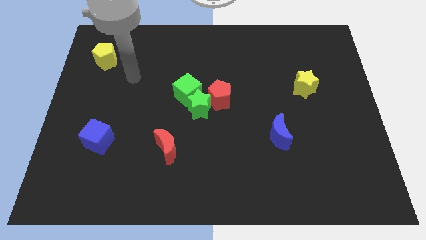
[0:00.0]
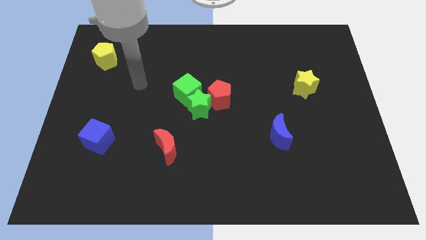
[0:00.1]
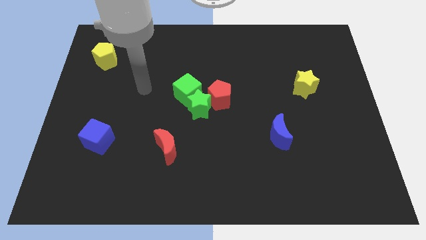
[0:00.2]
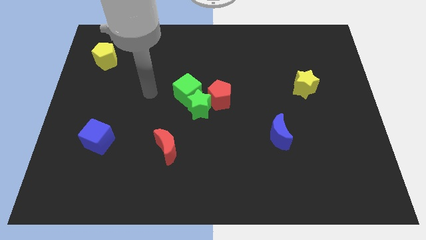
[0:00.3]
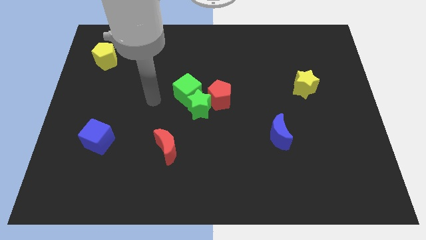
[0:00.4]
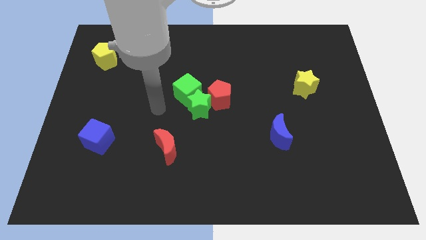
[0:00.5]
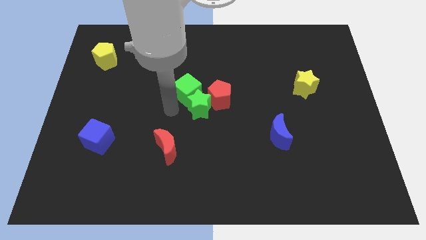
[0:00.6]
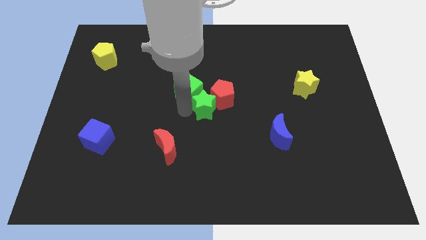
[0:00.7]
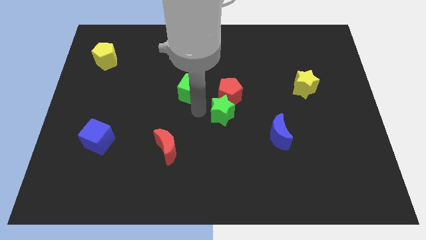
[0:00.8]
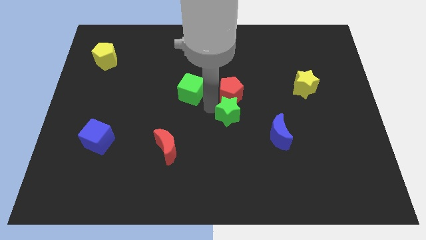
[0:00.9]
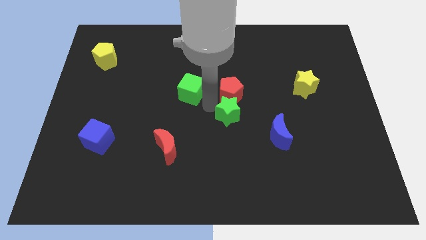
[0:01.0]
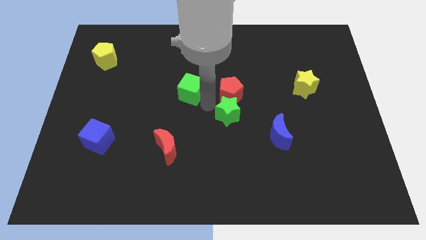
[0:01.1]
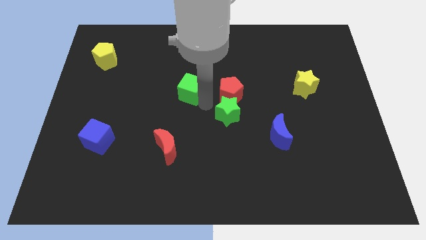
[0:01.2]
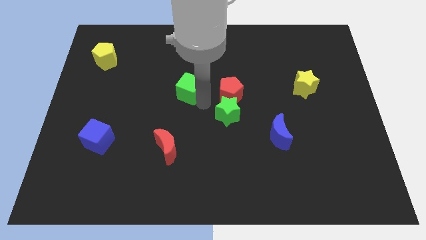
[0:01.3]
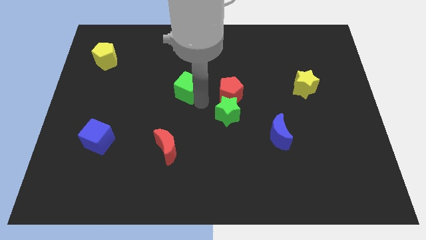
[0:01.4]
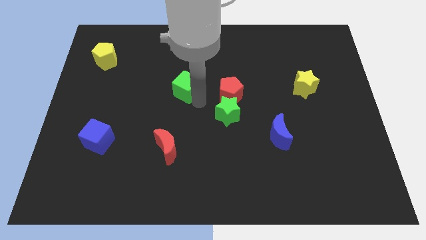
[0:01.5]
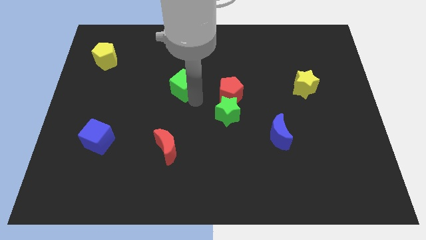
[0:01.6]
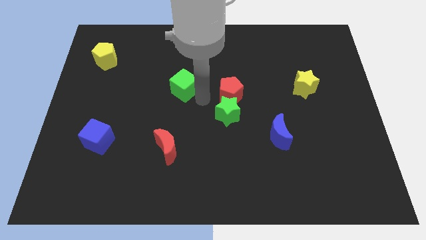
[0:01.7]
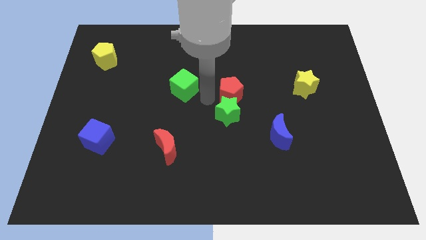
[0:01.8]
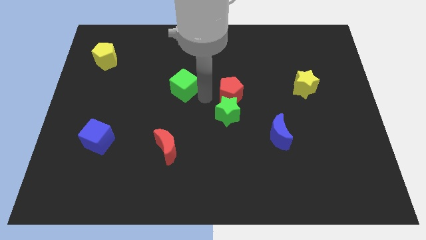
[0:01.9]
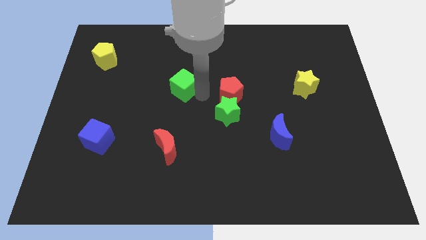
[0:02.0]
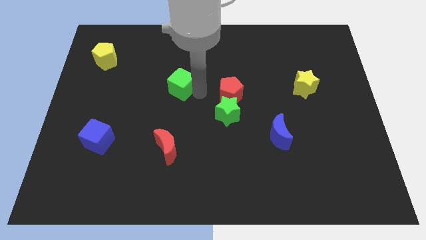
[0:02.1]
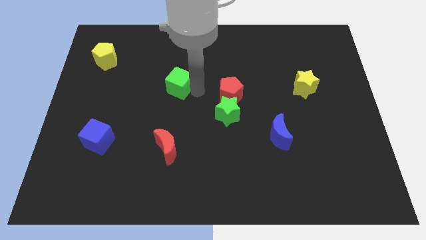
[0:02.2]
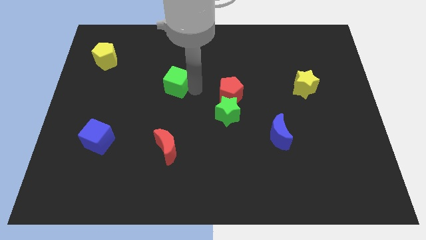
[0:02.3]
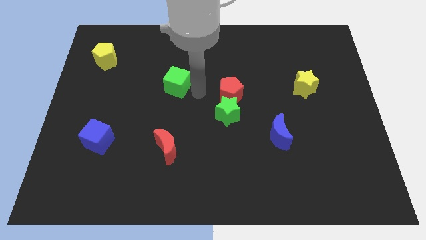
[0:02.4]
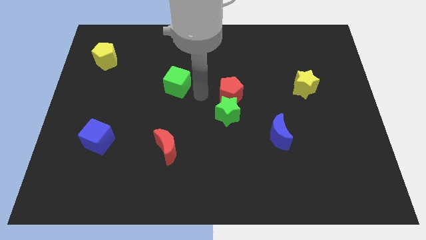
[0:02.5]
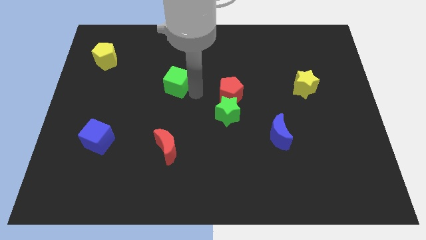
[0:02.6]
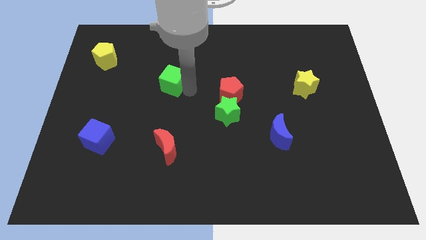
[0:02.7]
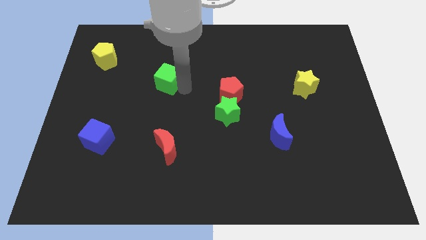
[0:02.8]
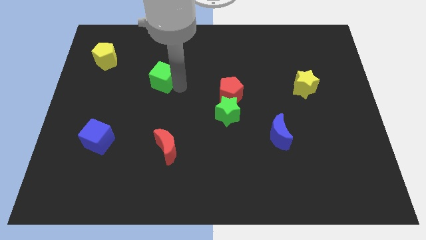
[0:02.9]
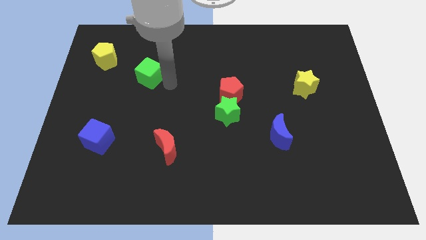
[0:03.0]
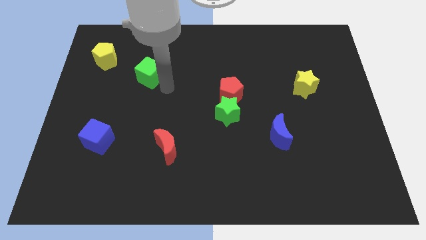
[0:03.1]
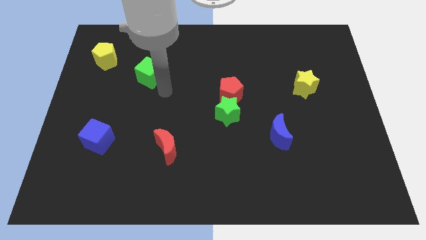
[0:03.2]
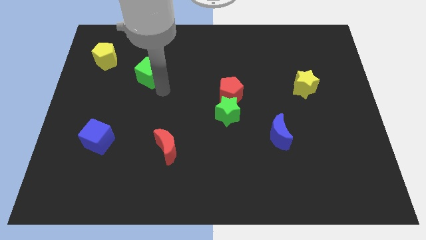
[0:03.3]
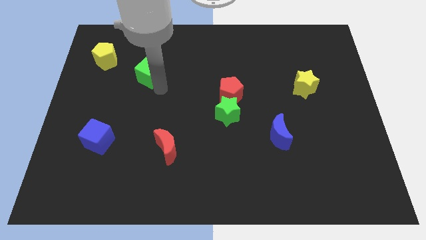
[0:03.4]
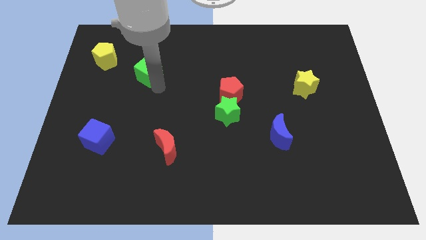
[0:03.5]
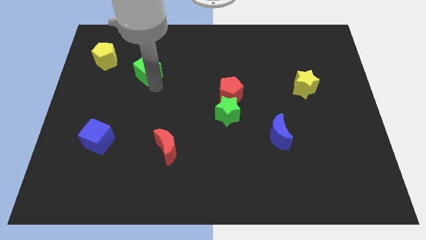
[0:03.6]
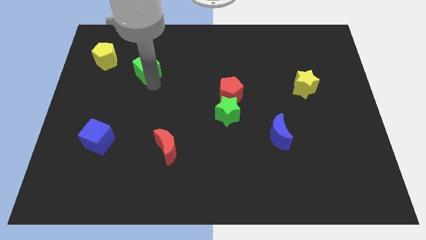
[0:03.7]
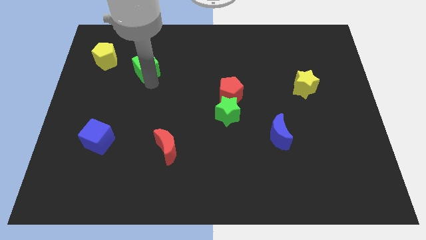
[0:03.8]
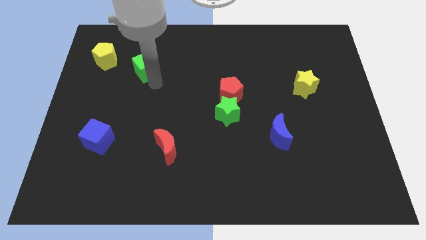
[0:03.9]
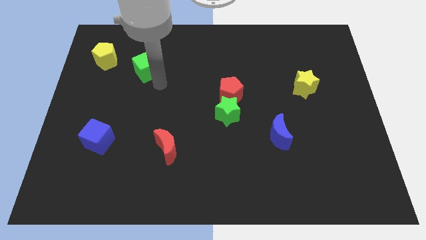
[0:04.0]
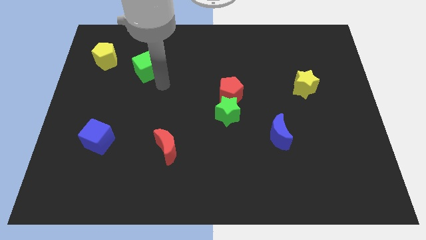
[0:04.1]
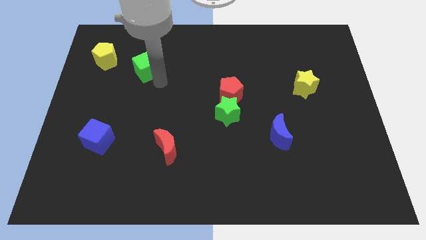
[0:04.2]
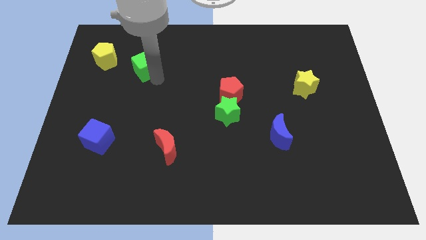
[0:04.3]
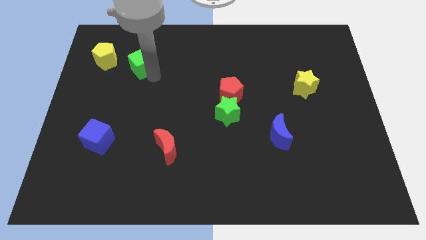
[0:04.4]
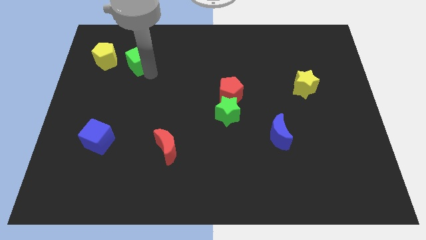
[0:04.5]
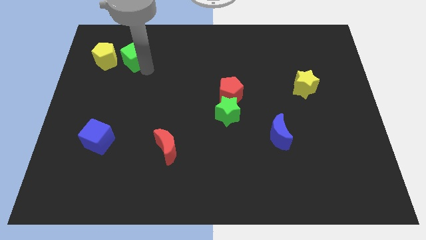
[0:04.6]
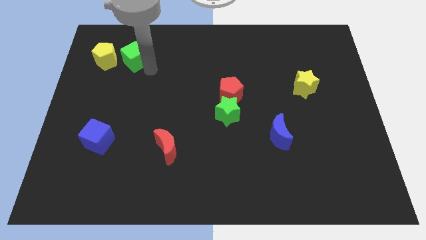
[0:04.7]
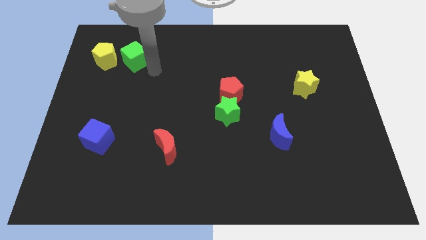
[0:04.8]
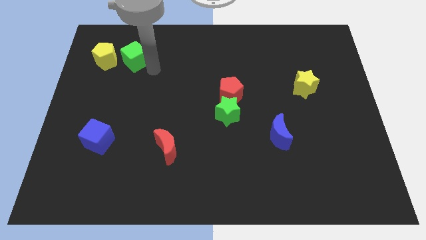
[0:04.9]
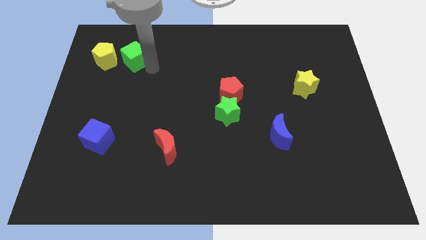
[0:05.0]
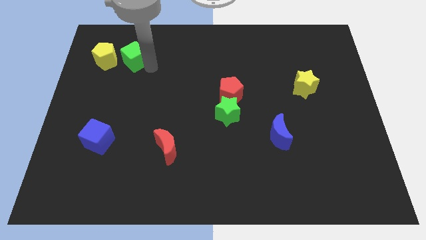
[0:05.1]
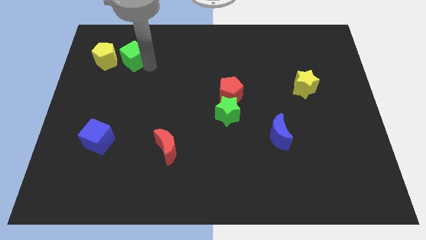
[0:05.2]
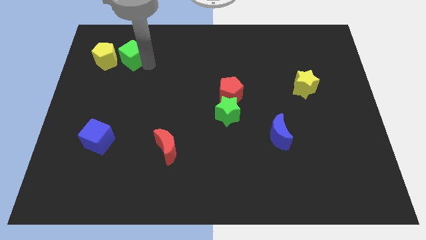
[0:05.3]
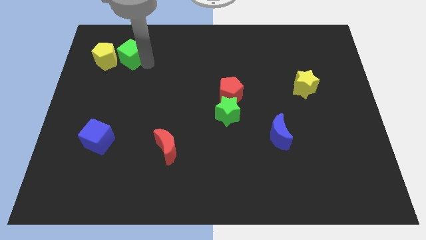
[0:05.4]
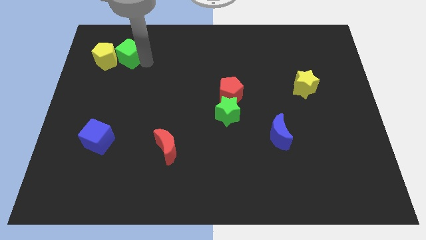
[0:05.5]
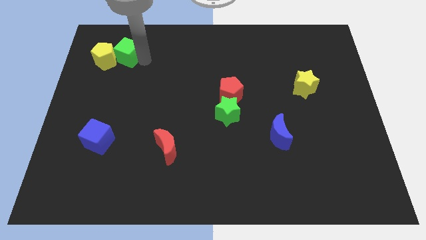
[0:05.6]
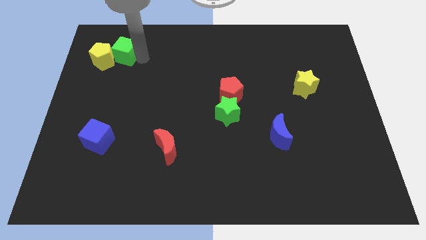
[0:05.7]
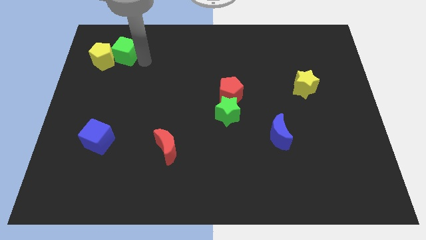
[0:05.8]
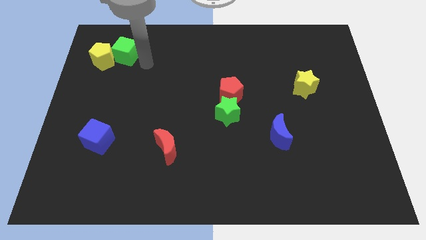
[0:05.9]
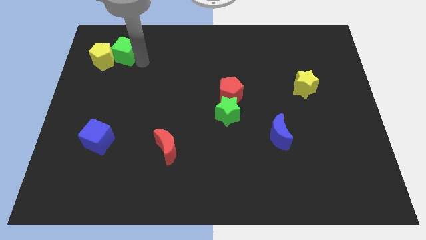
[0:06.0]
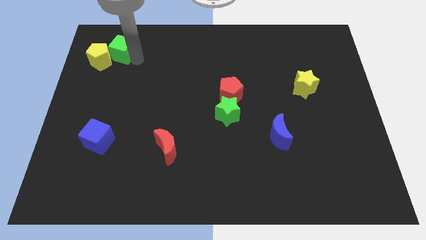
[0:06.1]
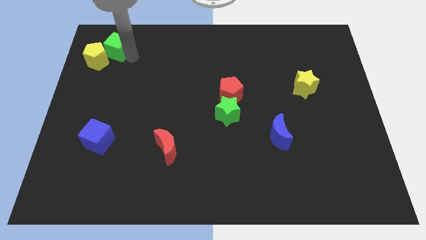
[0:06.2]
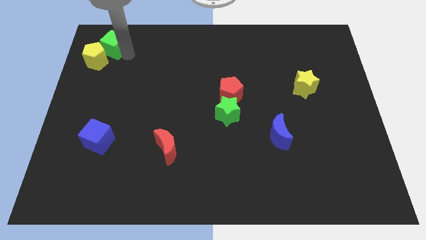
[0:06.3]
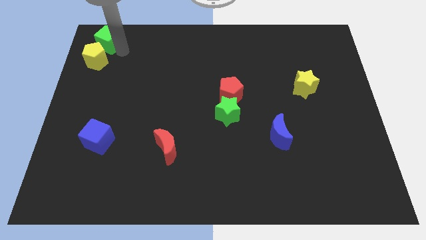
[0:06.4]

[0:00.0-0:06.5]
put the green cube to the upper left corner
